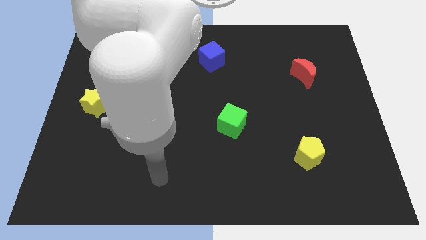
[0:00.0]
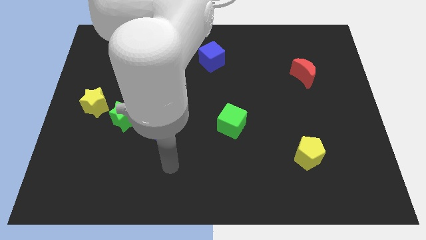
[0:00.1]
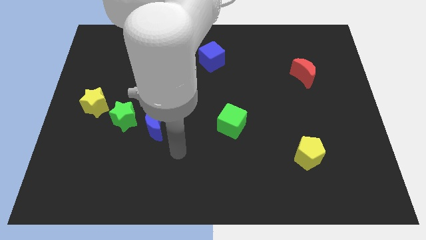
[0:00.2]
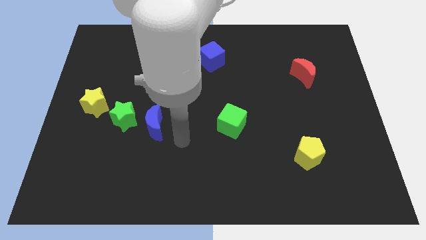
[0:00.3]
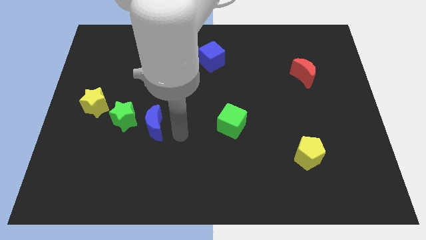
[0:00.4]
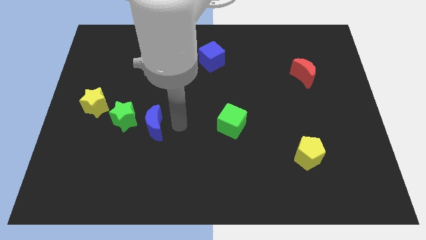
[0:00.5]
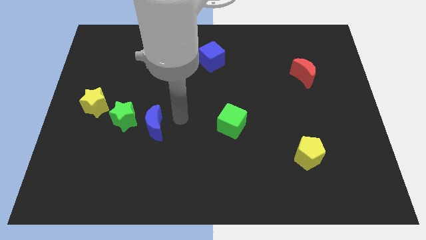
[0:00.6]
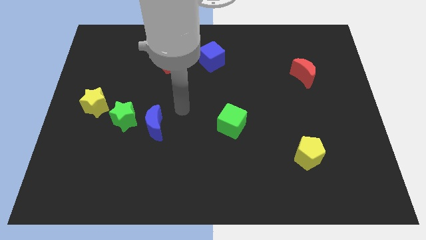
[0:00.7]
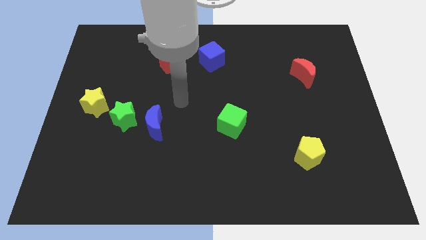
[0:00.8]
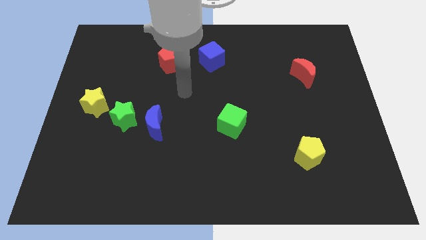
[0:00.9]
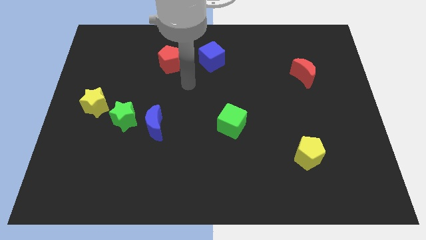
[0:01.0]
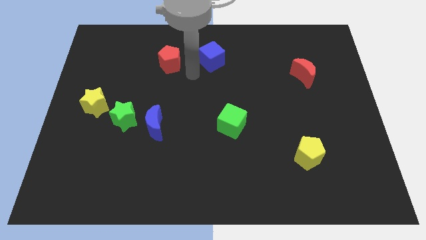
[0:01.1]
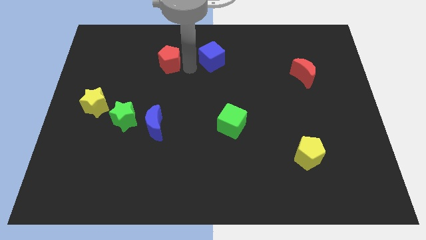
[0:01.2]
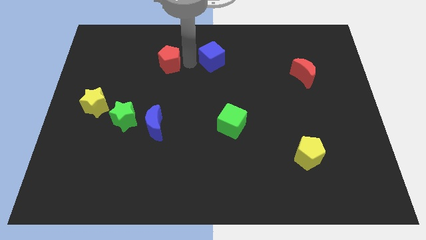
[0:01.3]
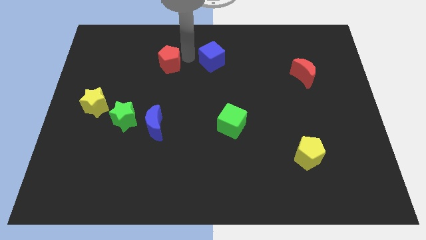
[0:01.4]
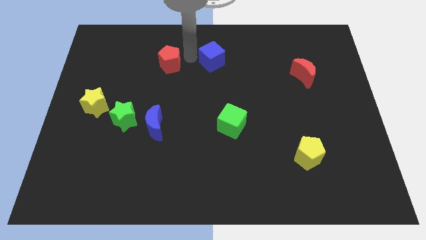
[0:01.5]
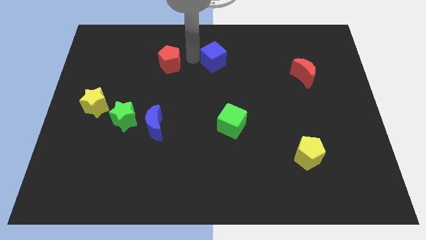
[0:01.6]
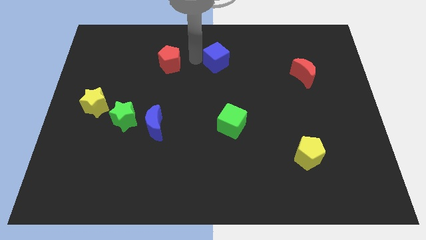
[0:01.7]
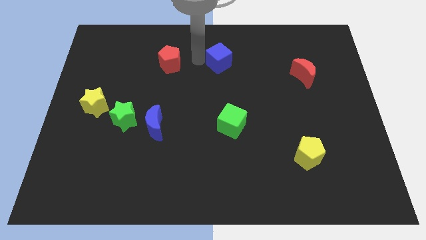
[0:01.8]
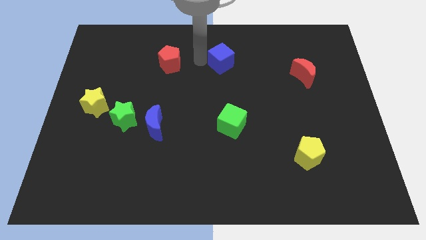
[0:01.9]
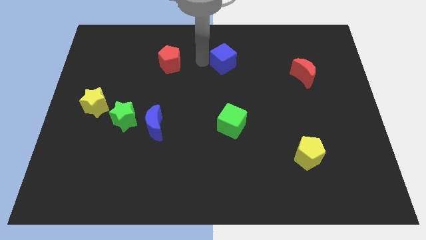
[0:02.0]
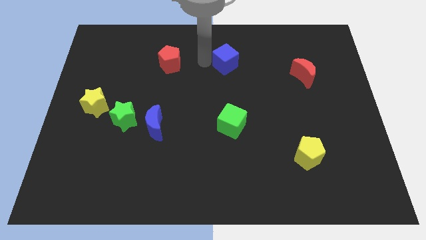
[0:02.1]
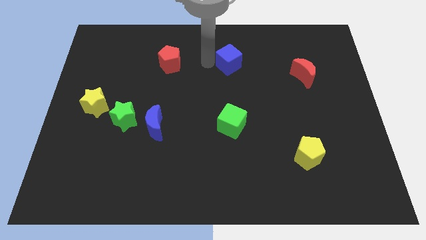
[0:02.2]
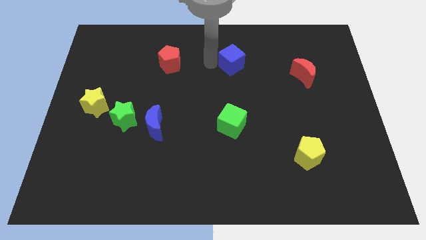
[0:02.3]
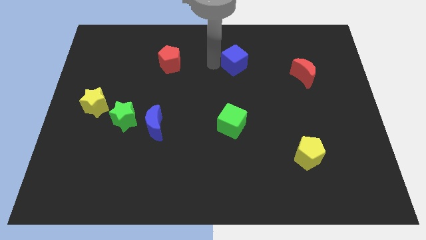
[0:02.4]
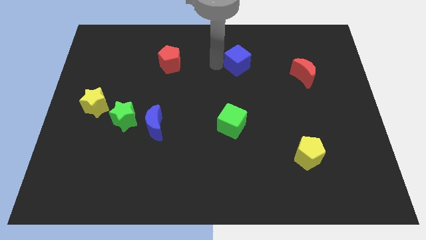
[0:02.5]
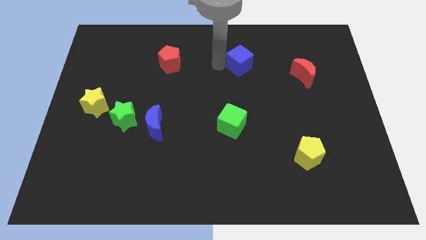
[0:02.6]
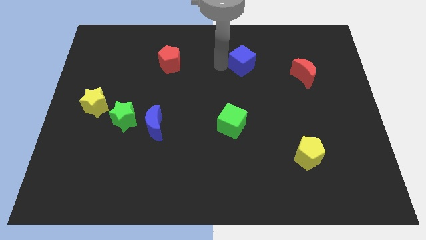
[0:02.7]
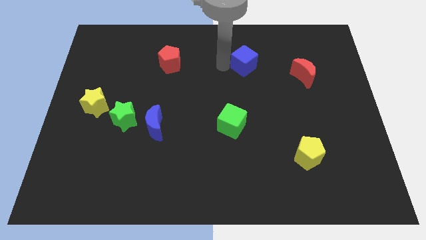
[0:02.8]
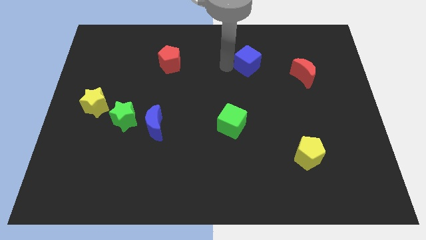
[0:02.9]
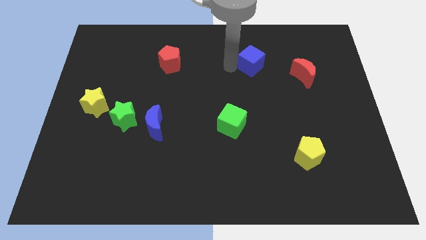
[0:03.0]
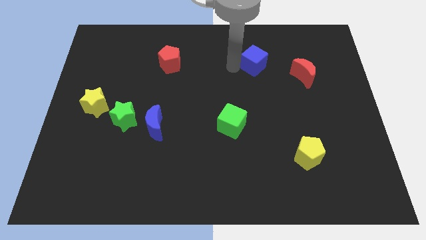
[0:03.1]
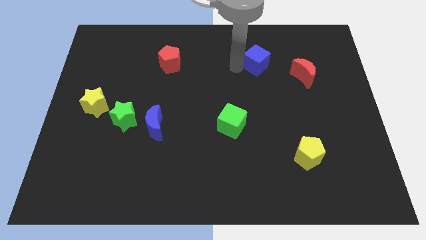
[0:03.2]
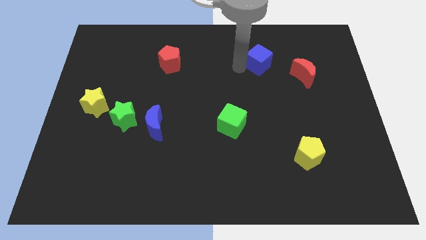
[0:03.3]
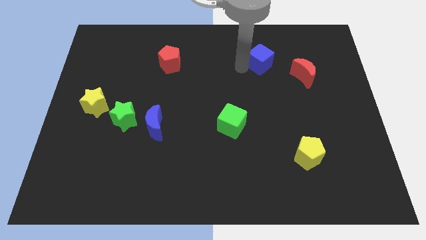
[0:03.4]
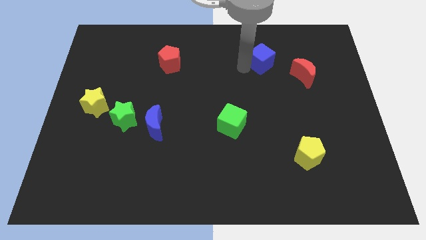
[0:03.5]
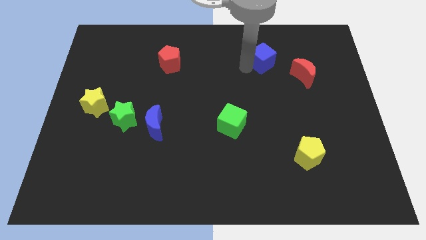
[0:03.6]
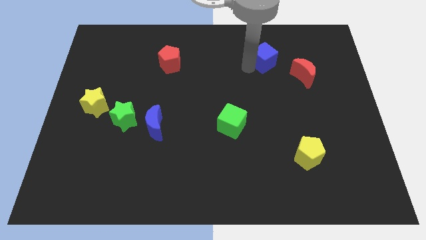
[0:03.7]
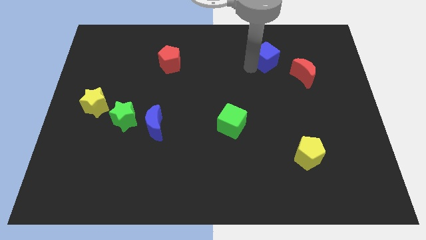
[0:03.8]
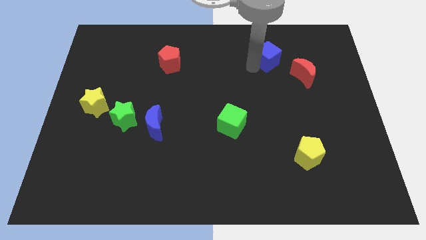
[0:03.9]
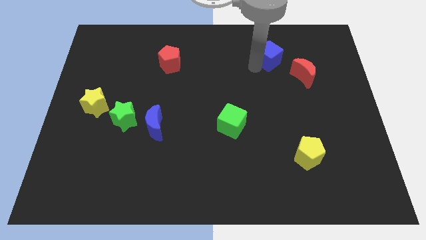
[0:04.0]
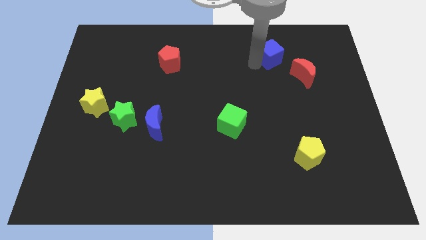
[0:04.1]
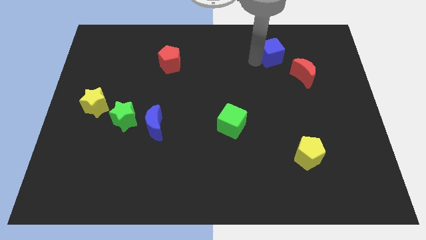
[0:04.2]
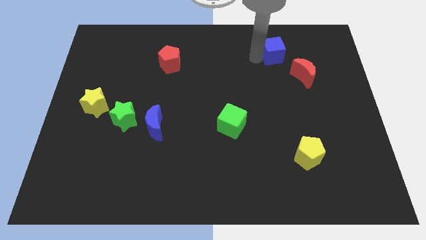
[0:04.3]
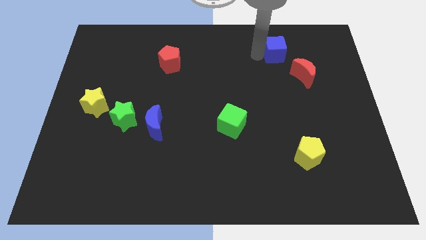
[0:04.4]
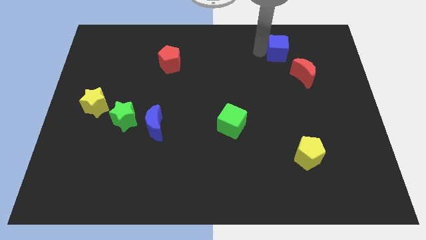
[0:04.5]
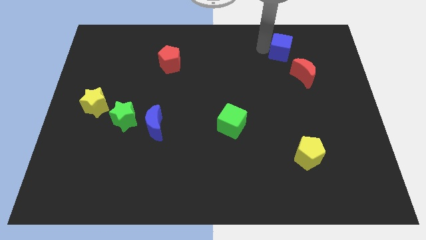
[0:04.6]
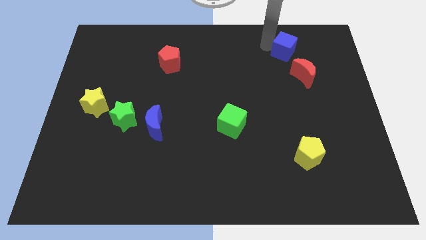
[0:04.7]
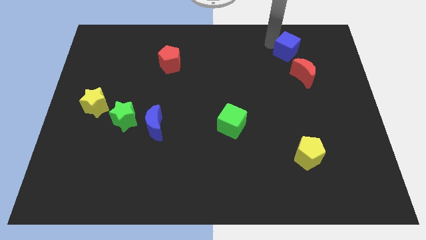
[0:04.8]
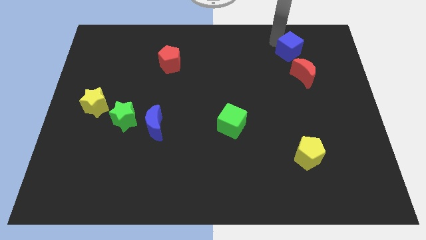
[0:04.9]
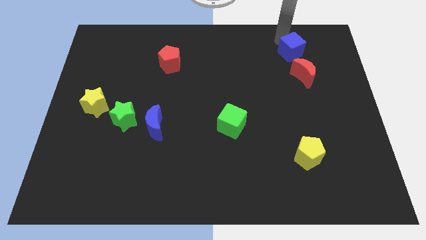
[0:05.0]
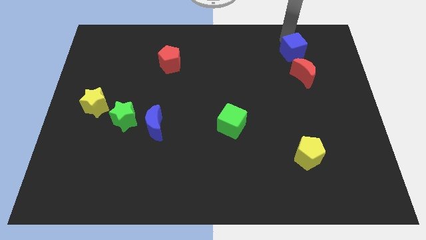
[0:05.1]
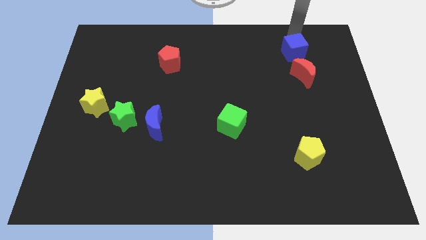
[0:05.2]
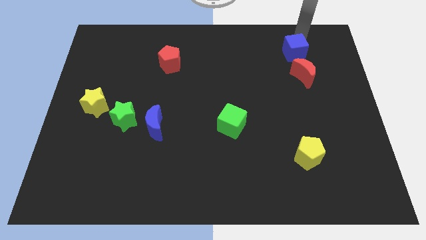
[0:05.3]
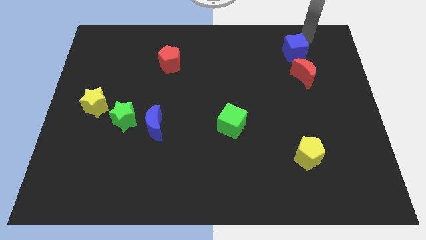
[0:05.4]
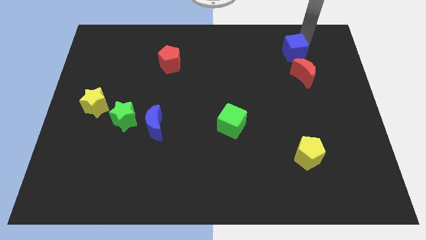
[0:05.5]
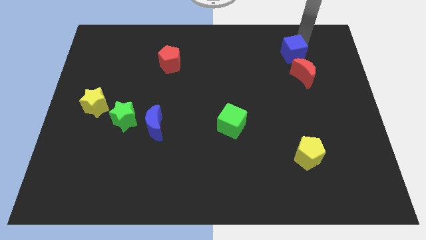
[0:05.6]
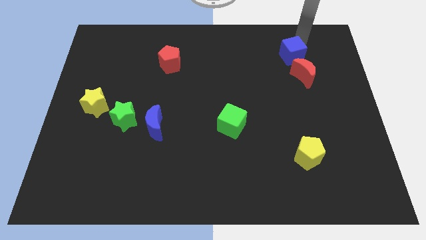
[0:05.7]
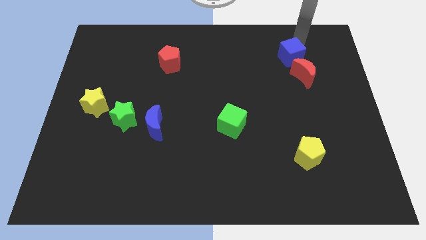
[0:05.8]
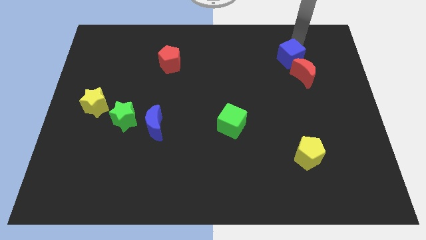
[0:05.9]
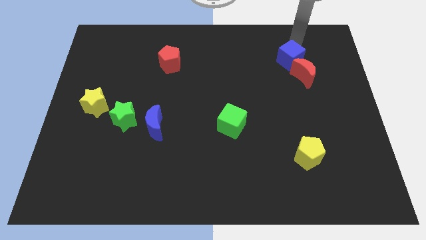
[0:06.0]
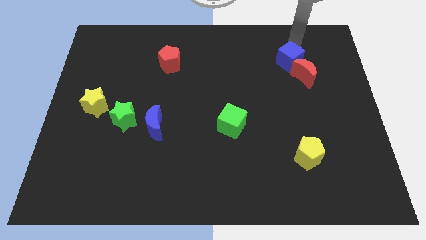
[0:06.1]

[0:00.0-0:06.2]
move the blue cube towards the red moon

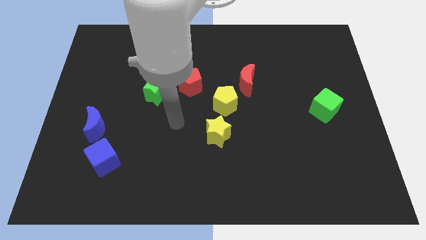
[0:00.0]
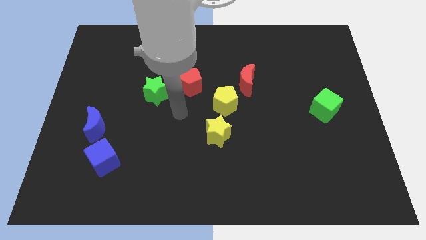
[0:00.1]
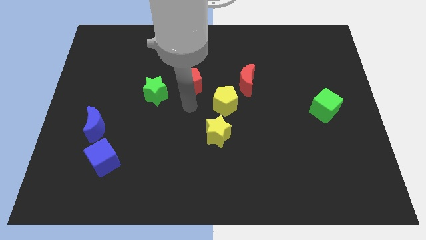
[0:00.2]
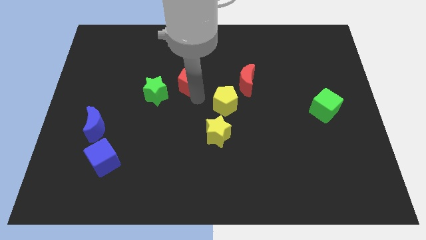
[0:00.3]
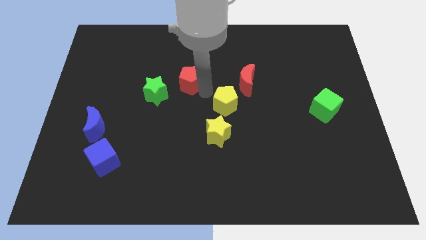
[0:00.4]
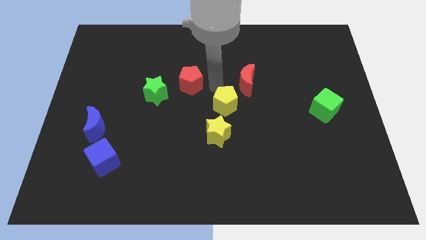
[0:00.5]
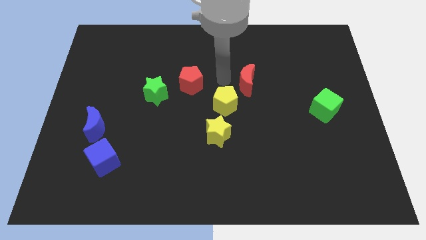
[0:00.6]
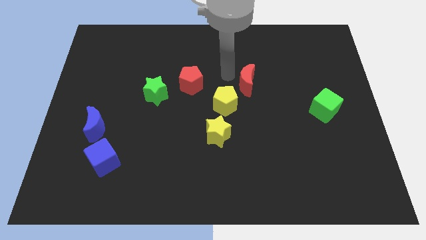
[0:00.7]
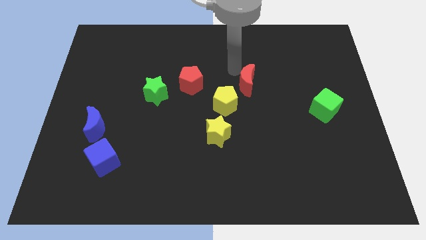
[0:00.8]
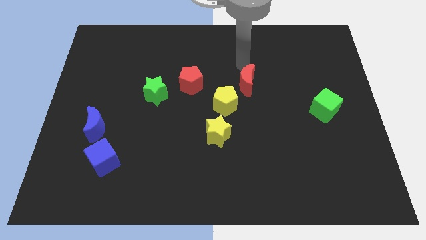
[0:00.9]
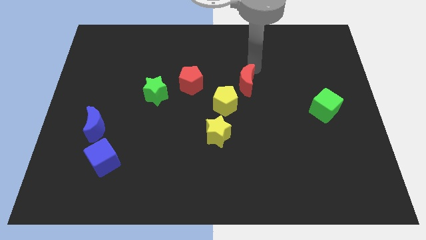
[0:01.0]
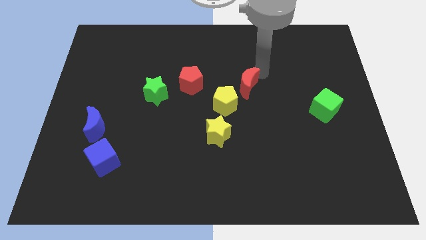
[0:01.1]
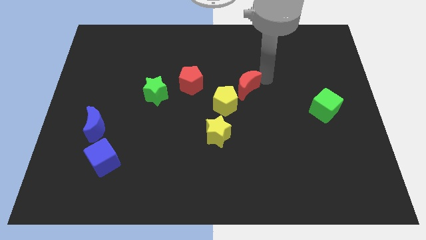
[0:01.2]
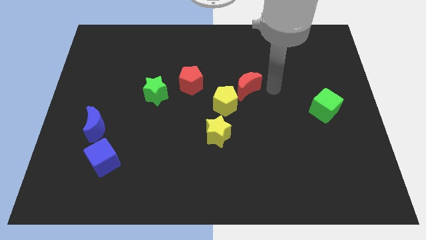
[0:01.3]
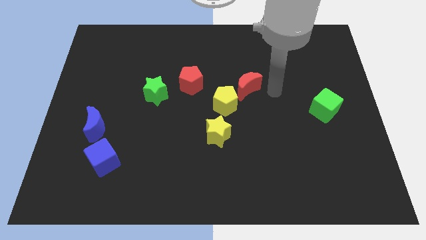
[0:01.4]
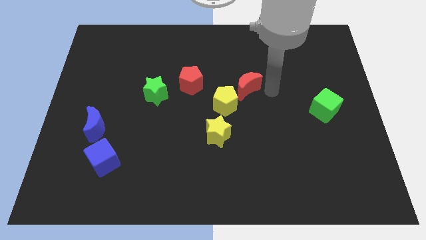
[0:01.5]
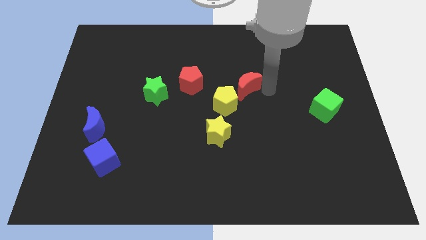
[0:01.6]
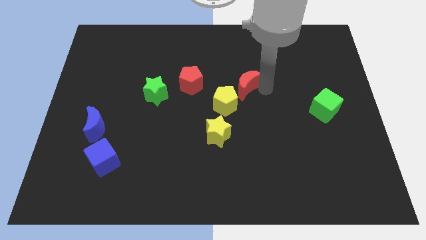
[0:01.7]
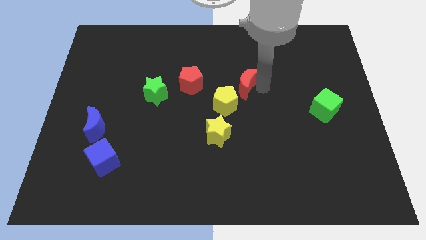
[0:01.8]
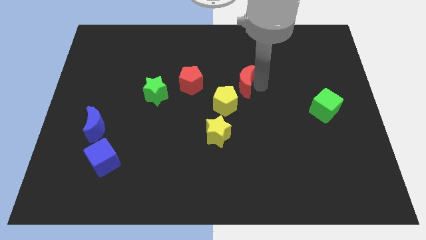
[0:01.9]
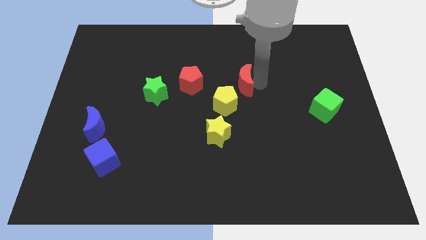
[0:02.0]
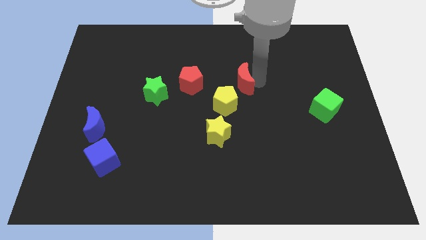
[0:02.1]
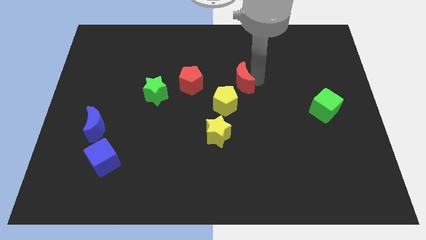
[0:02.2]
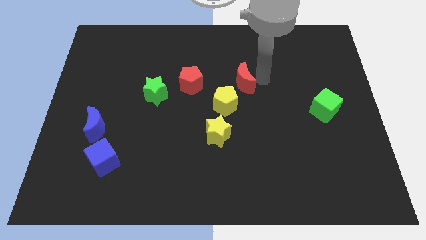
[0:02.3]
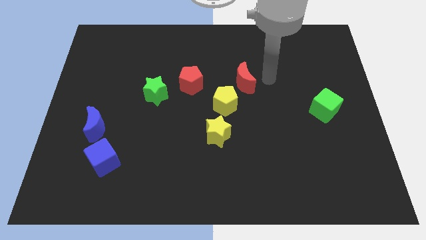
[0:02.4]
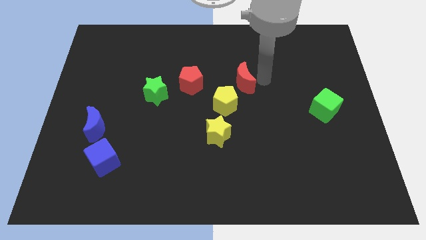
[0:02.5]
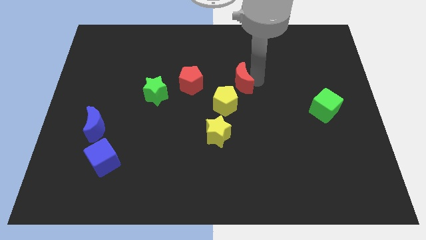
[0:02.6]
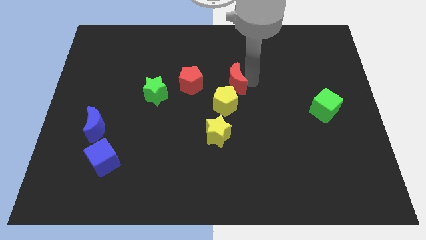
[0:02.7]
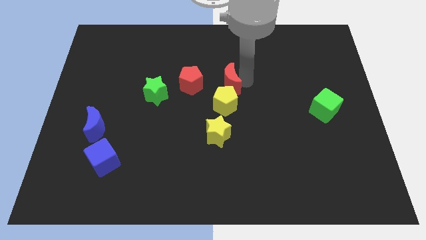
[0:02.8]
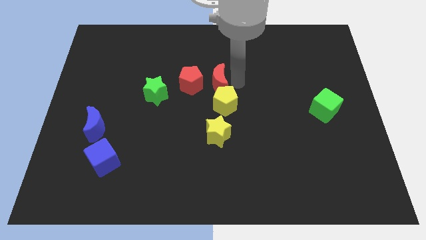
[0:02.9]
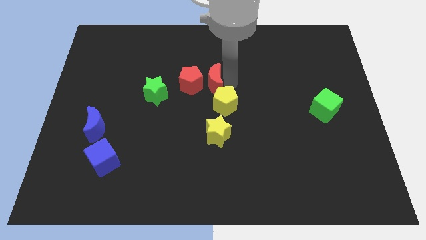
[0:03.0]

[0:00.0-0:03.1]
slide the red moon towards the red pentagon
